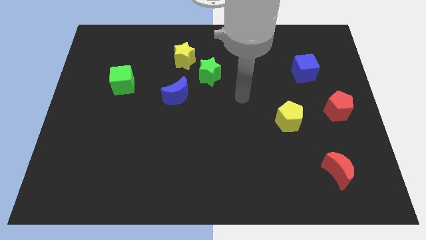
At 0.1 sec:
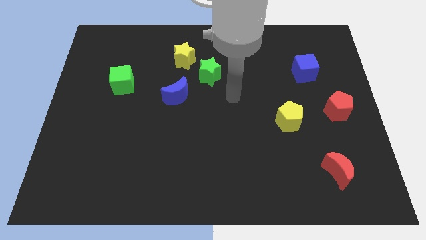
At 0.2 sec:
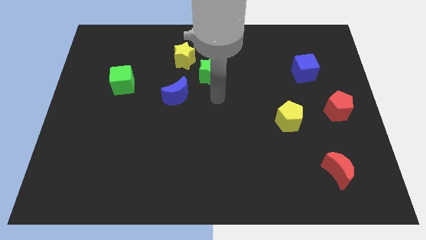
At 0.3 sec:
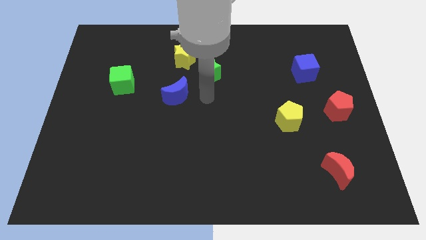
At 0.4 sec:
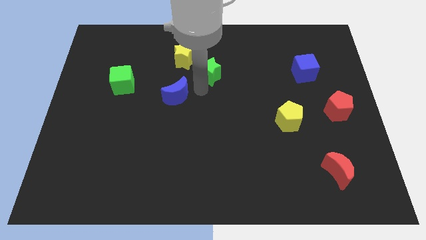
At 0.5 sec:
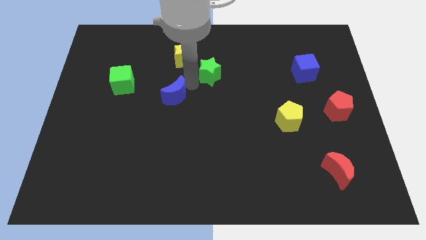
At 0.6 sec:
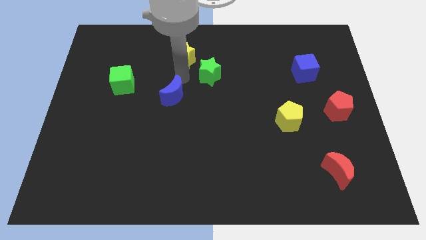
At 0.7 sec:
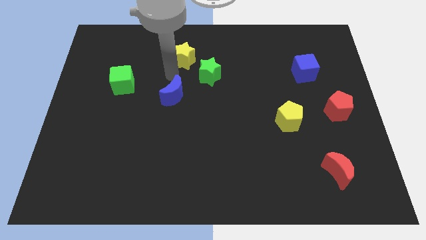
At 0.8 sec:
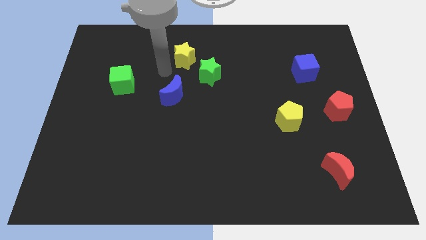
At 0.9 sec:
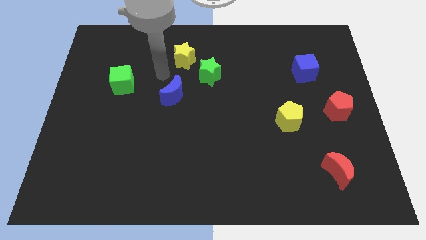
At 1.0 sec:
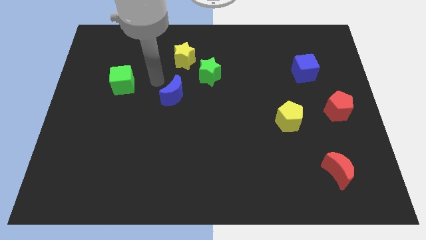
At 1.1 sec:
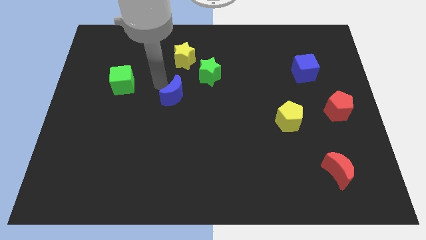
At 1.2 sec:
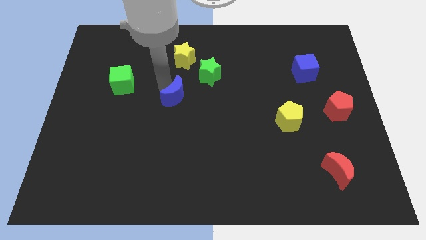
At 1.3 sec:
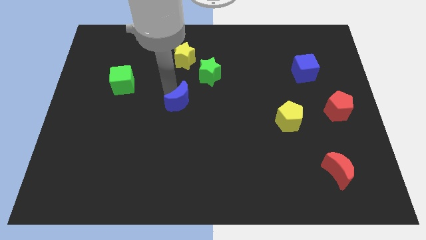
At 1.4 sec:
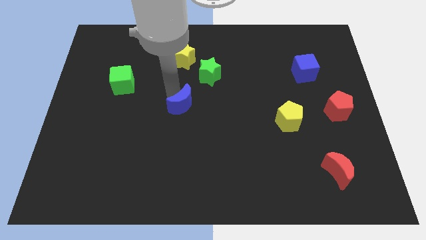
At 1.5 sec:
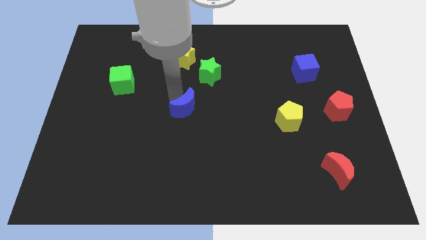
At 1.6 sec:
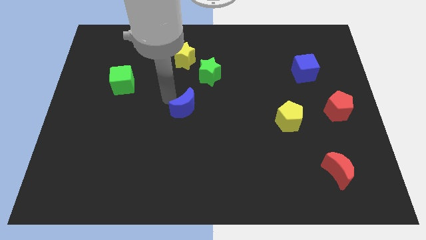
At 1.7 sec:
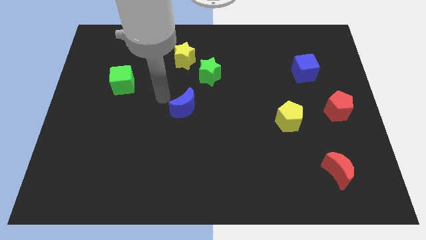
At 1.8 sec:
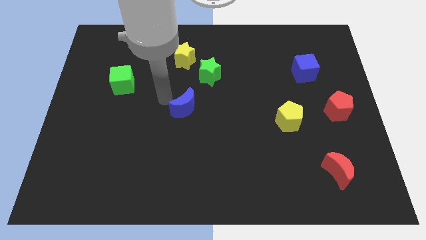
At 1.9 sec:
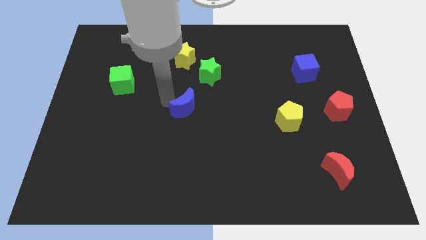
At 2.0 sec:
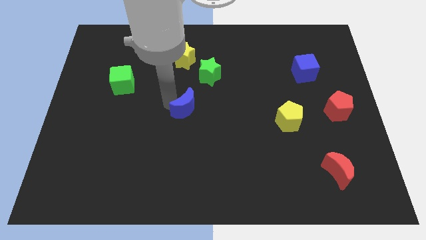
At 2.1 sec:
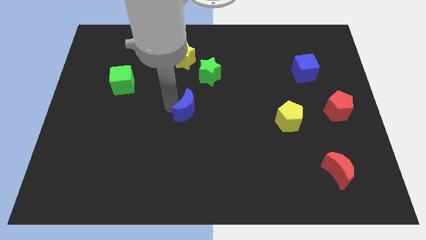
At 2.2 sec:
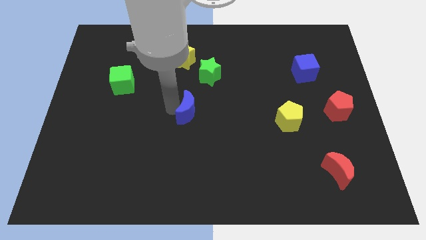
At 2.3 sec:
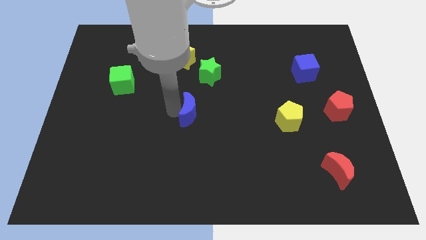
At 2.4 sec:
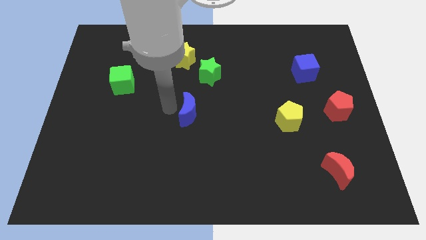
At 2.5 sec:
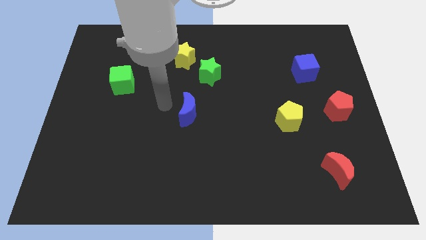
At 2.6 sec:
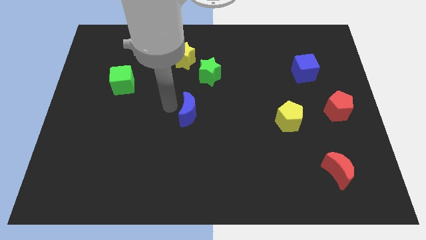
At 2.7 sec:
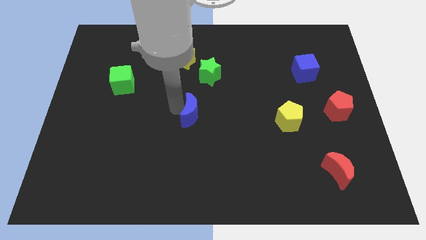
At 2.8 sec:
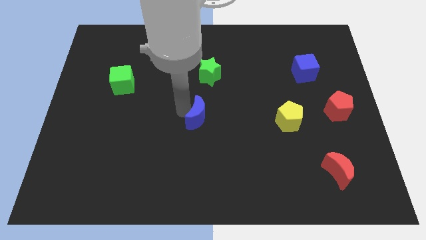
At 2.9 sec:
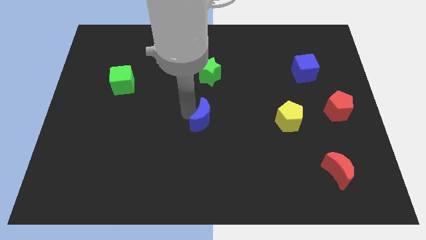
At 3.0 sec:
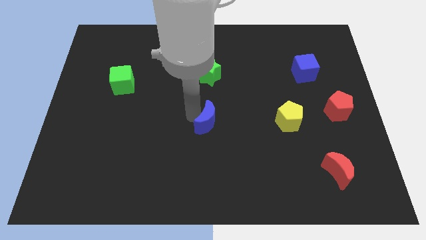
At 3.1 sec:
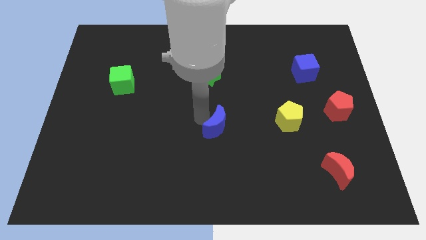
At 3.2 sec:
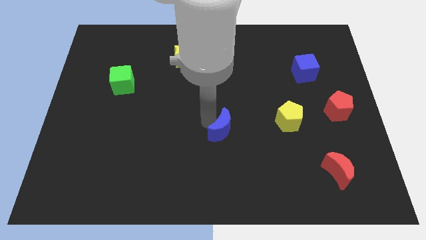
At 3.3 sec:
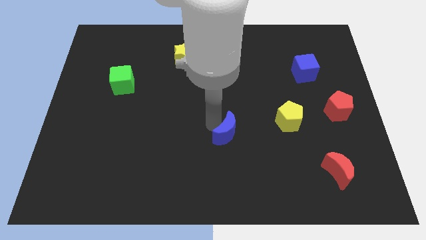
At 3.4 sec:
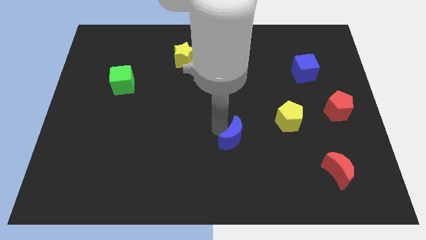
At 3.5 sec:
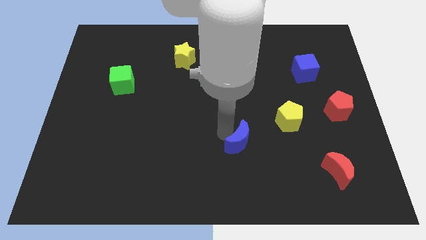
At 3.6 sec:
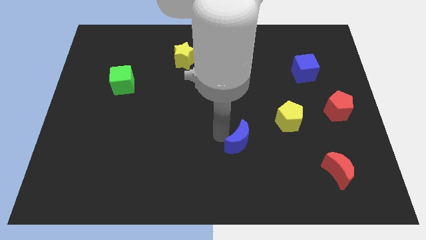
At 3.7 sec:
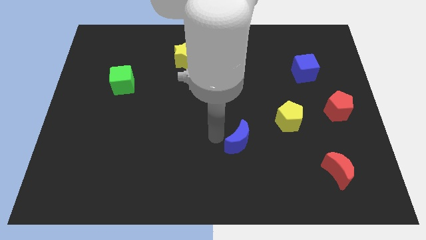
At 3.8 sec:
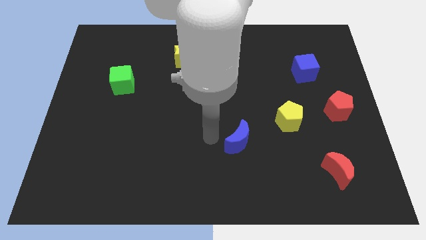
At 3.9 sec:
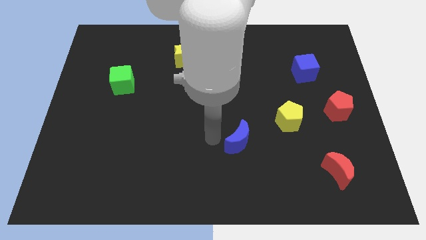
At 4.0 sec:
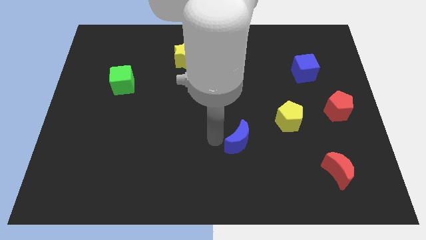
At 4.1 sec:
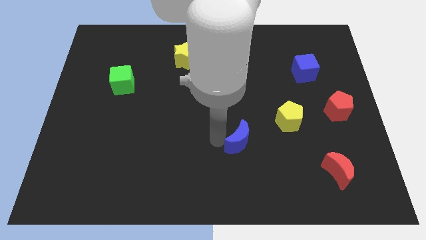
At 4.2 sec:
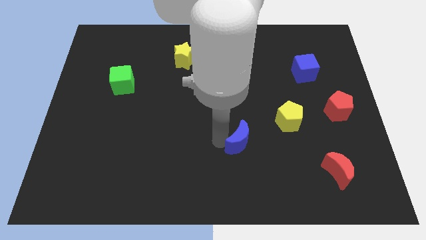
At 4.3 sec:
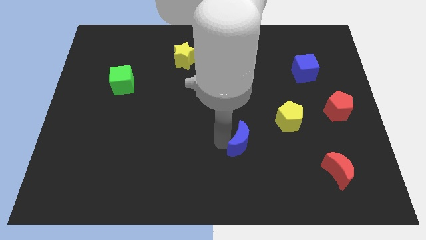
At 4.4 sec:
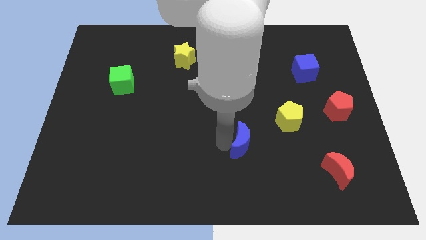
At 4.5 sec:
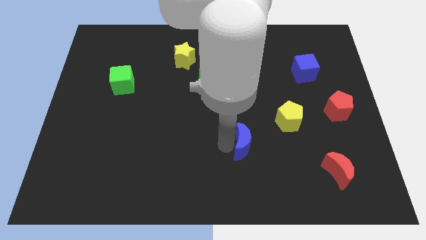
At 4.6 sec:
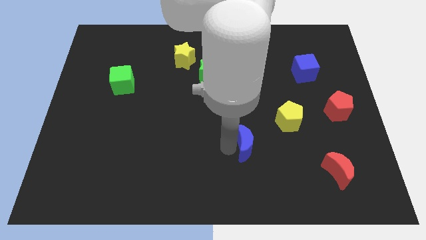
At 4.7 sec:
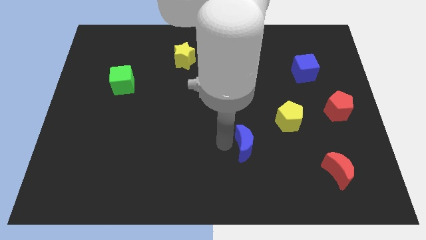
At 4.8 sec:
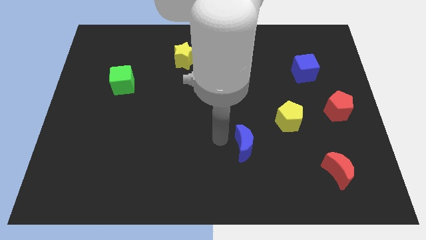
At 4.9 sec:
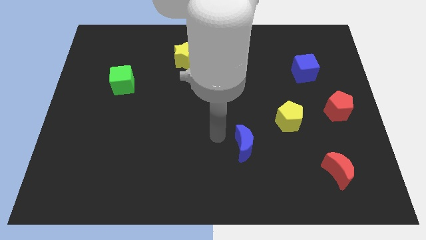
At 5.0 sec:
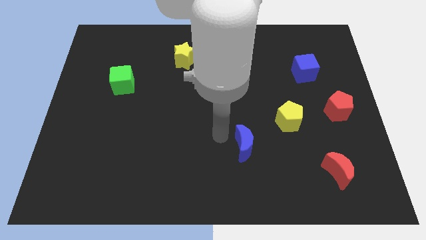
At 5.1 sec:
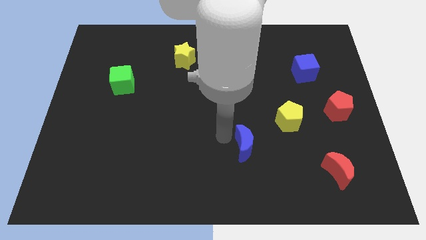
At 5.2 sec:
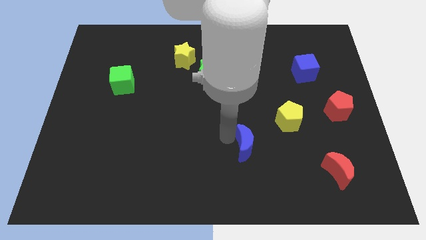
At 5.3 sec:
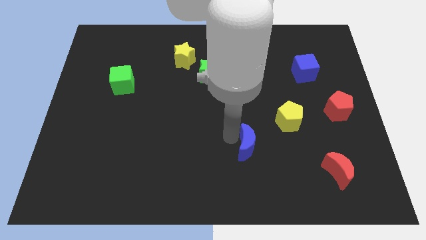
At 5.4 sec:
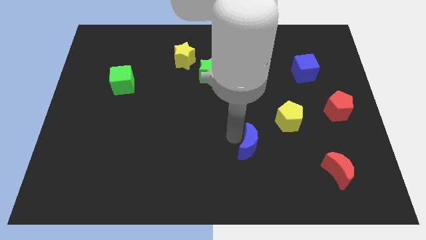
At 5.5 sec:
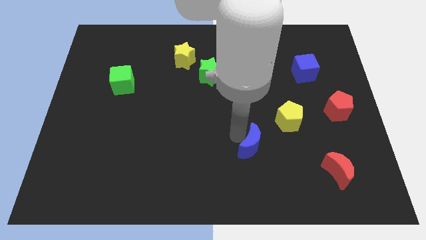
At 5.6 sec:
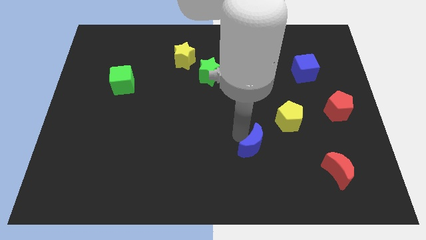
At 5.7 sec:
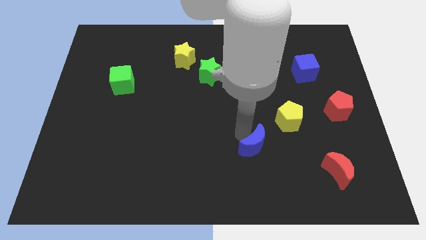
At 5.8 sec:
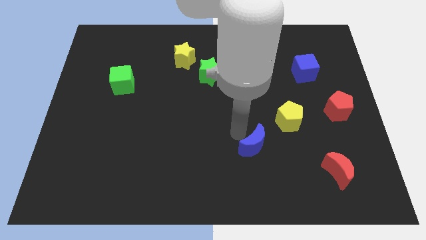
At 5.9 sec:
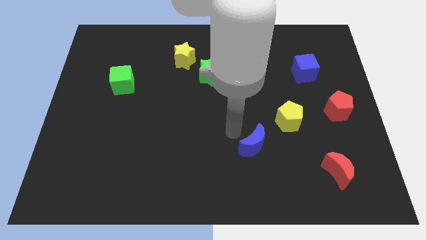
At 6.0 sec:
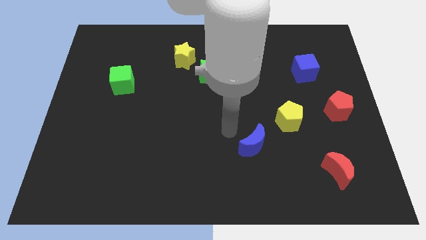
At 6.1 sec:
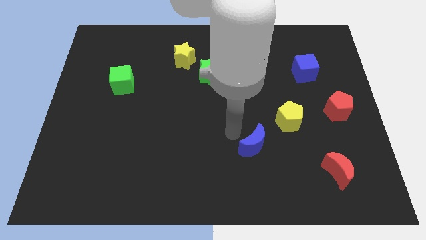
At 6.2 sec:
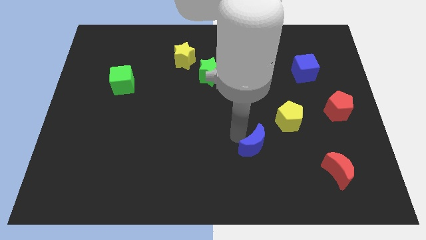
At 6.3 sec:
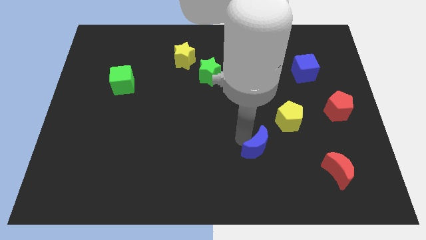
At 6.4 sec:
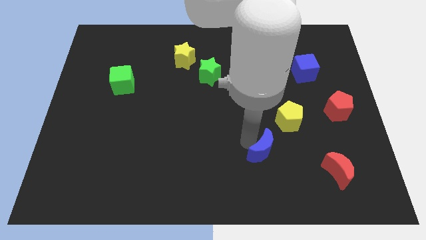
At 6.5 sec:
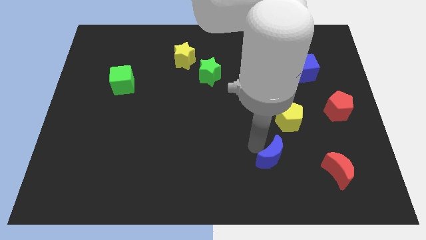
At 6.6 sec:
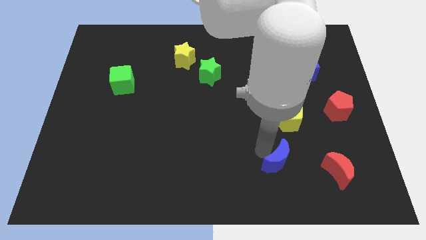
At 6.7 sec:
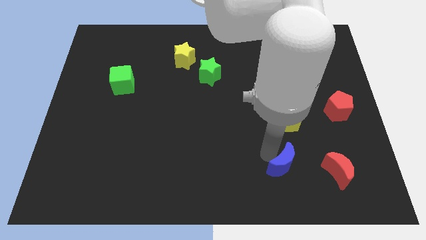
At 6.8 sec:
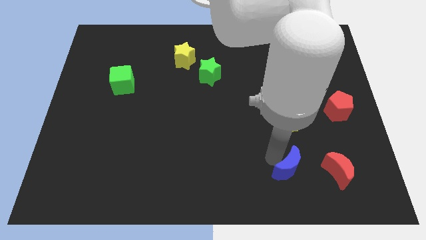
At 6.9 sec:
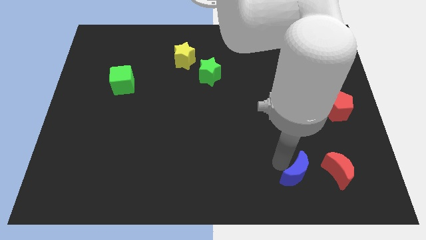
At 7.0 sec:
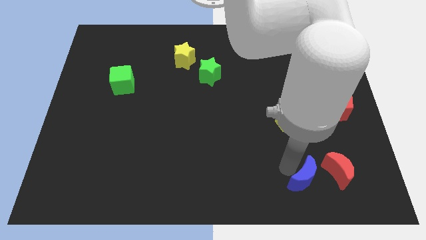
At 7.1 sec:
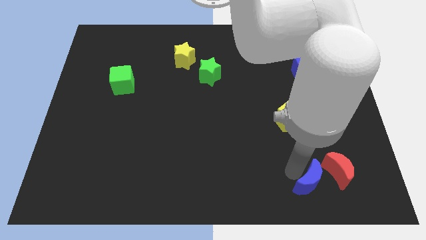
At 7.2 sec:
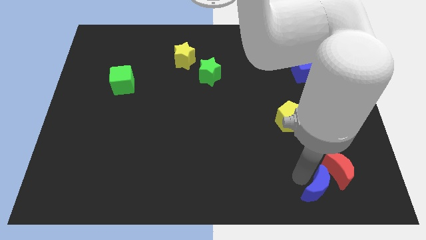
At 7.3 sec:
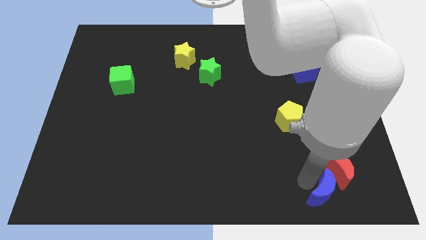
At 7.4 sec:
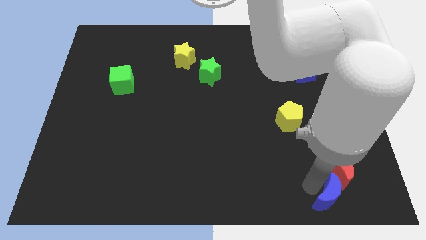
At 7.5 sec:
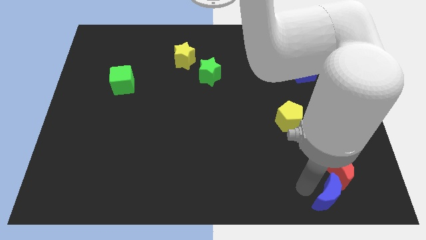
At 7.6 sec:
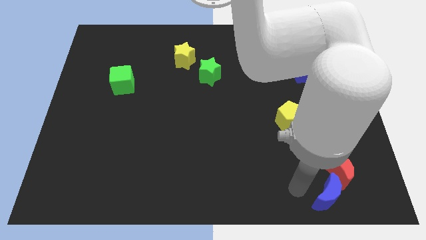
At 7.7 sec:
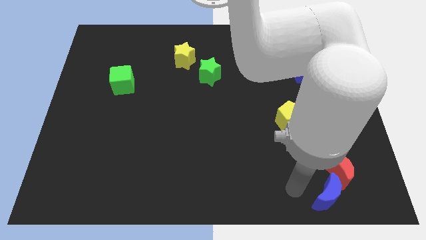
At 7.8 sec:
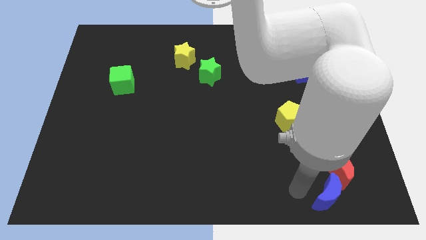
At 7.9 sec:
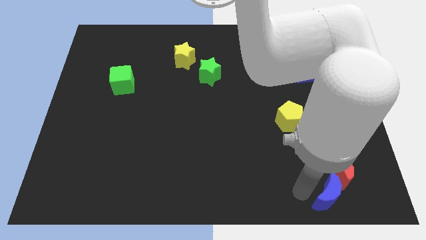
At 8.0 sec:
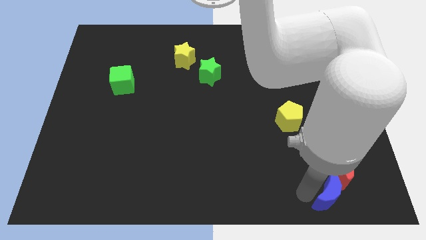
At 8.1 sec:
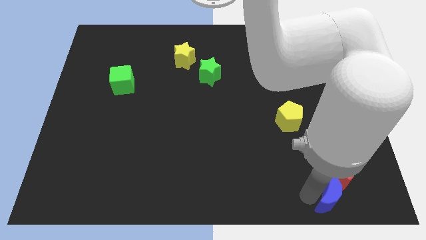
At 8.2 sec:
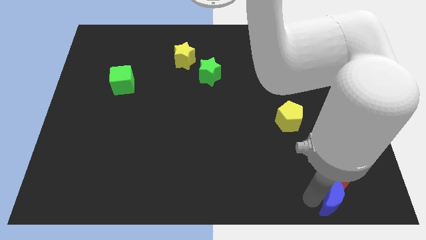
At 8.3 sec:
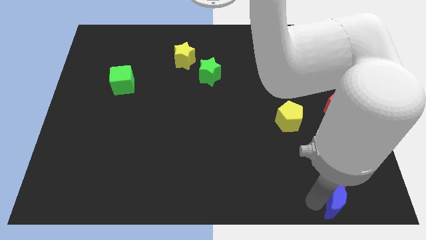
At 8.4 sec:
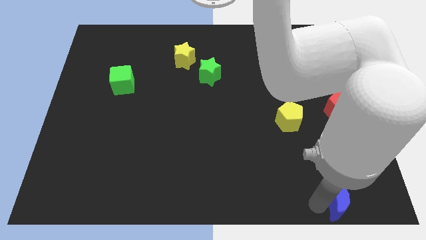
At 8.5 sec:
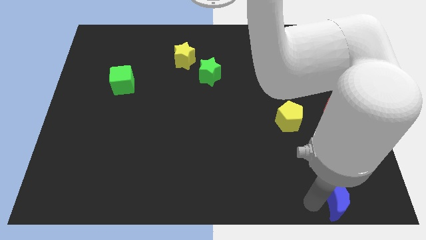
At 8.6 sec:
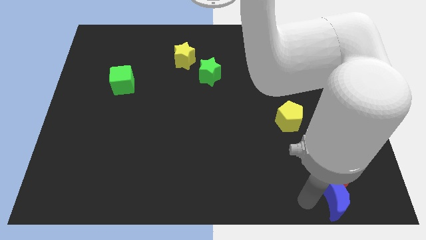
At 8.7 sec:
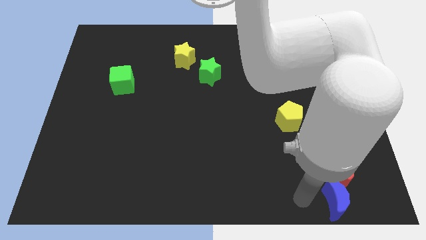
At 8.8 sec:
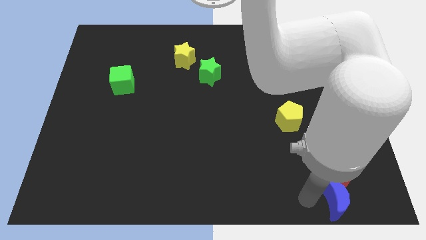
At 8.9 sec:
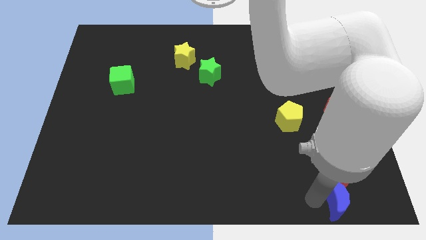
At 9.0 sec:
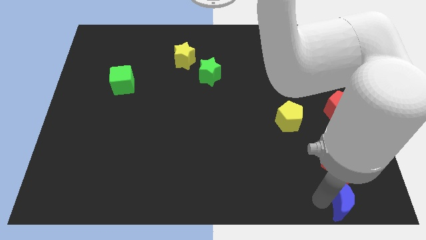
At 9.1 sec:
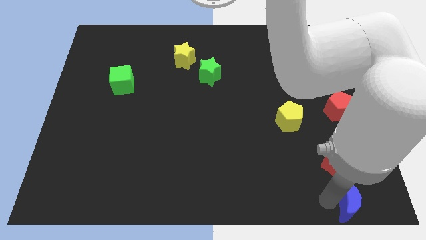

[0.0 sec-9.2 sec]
put the blue moon to the bottom right corner
